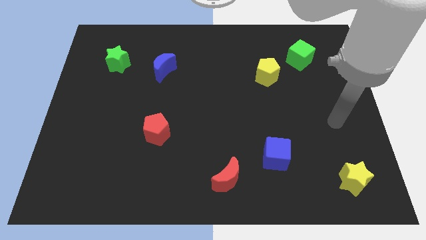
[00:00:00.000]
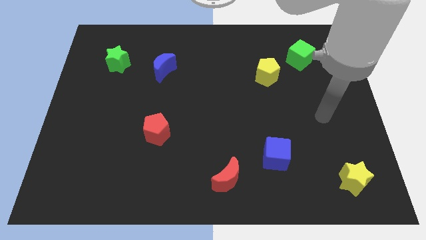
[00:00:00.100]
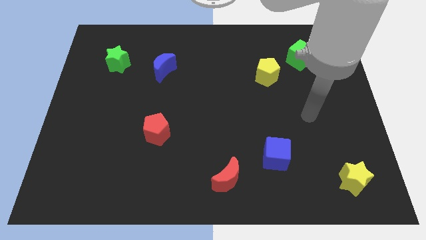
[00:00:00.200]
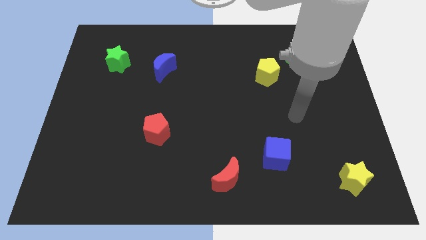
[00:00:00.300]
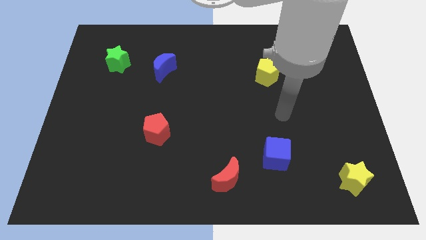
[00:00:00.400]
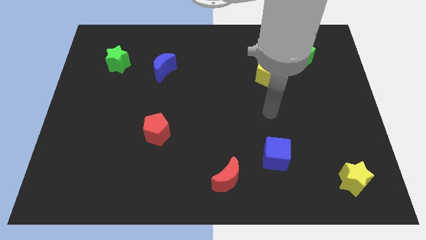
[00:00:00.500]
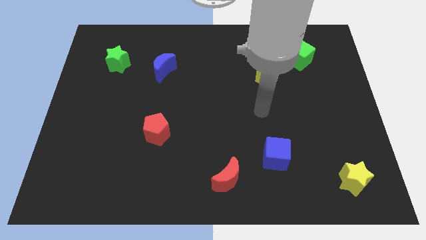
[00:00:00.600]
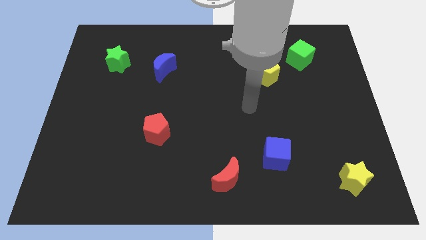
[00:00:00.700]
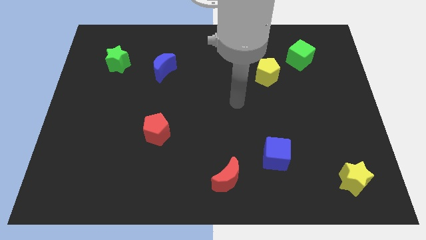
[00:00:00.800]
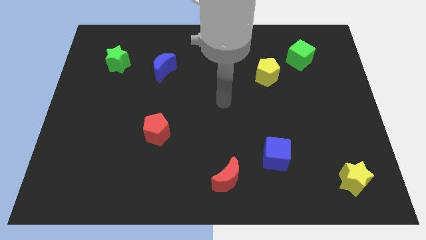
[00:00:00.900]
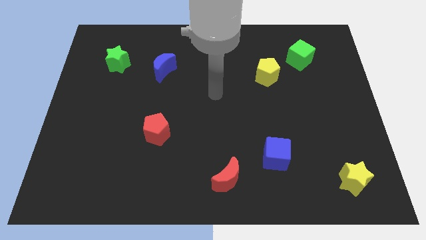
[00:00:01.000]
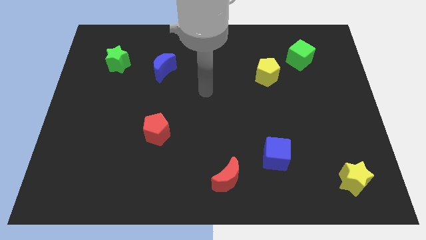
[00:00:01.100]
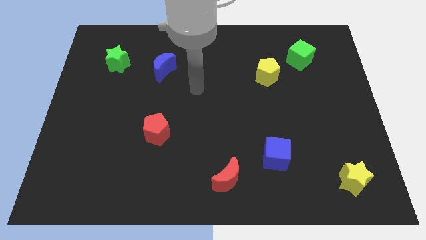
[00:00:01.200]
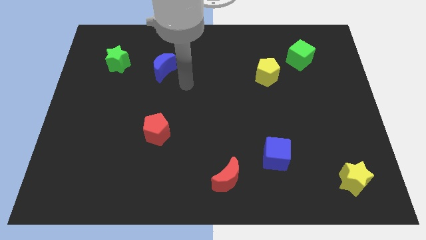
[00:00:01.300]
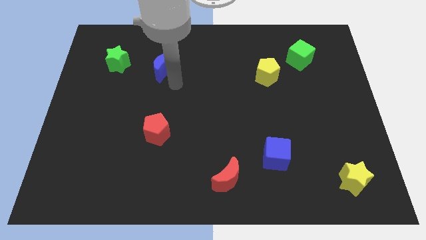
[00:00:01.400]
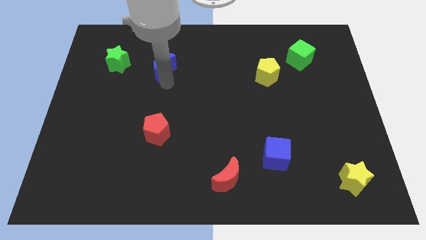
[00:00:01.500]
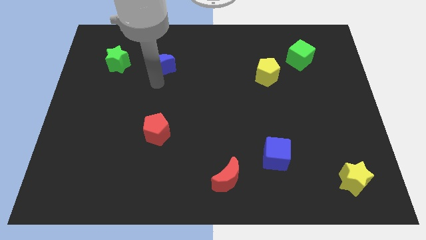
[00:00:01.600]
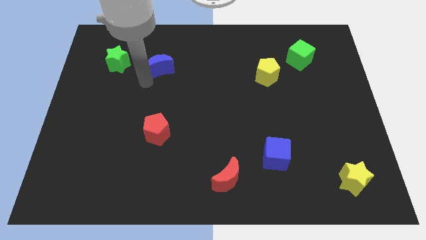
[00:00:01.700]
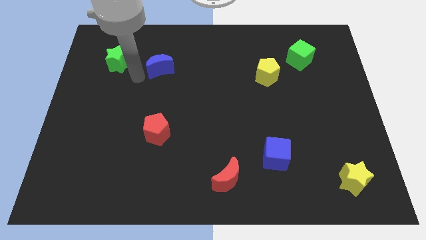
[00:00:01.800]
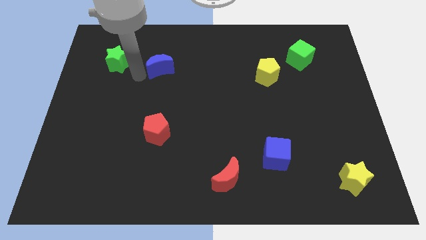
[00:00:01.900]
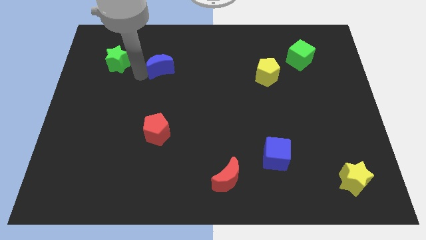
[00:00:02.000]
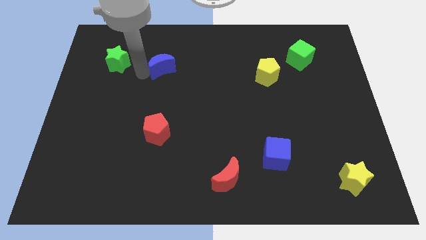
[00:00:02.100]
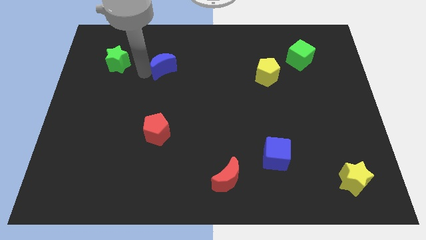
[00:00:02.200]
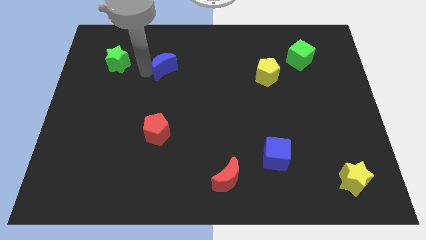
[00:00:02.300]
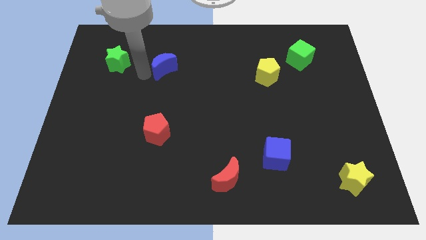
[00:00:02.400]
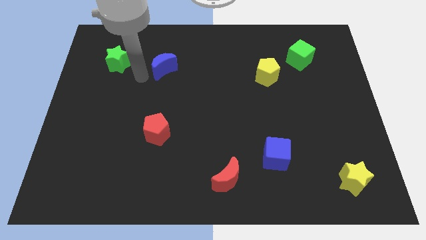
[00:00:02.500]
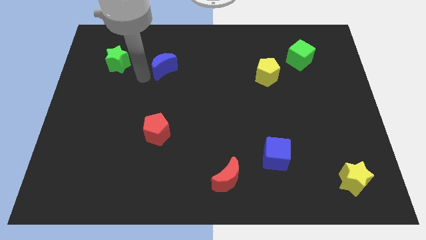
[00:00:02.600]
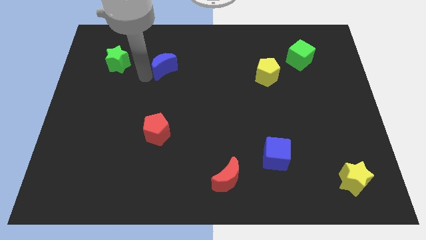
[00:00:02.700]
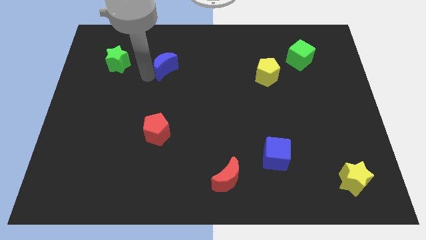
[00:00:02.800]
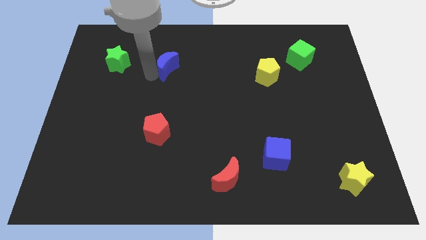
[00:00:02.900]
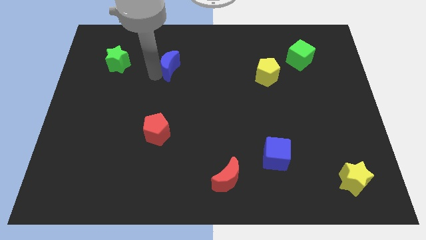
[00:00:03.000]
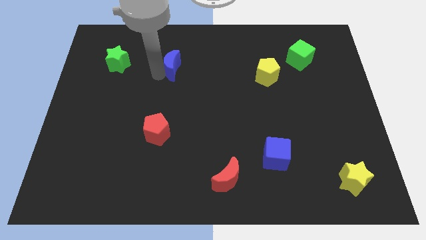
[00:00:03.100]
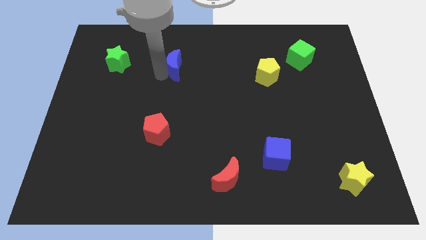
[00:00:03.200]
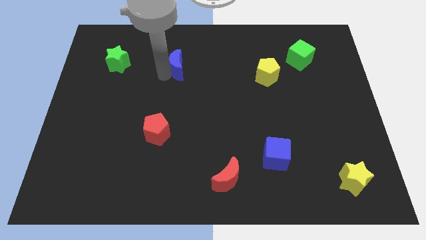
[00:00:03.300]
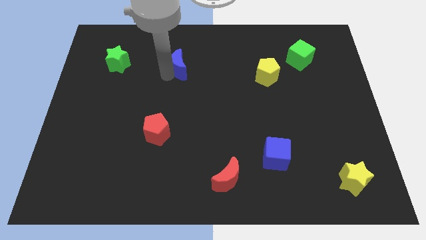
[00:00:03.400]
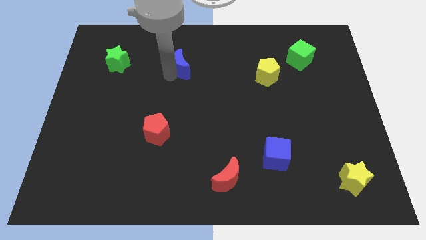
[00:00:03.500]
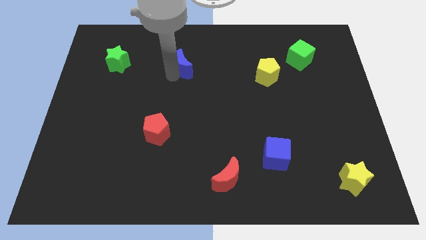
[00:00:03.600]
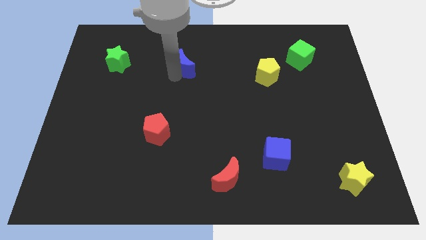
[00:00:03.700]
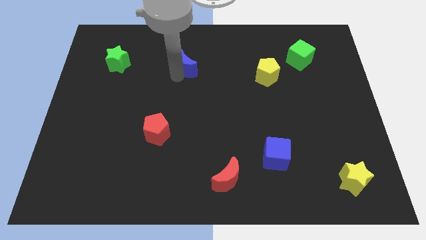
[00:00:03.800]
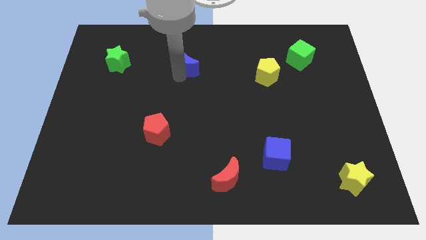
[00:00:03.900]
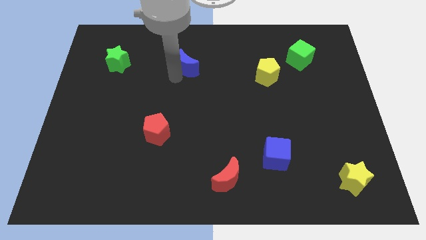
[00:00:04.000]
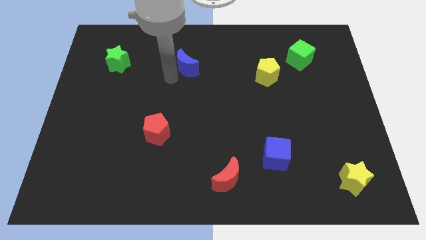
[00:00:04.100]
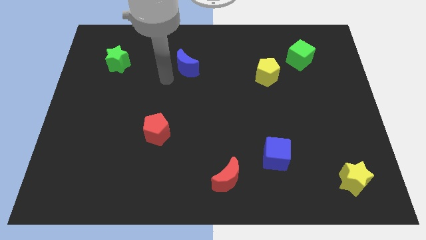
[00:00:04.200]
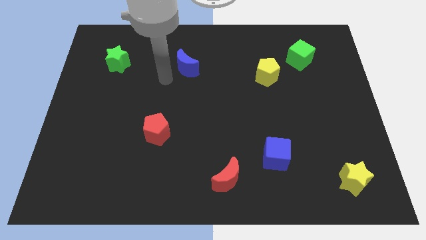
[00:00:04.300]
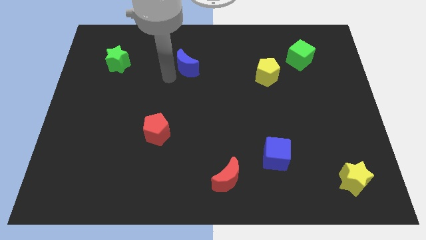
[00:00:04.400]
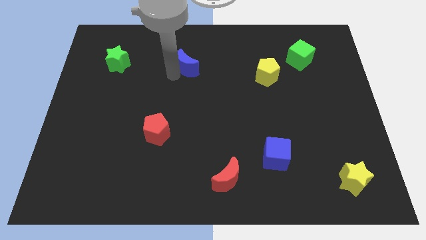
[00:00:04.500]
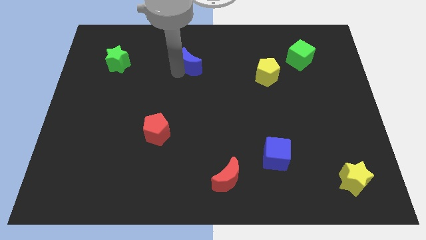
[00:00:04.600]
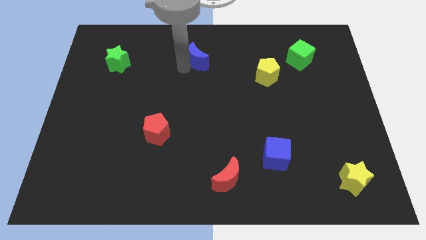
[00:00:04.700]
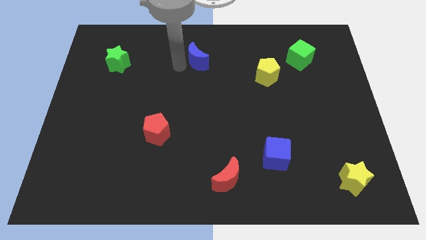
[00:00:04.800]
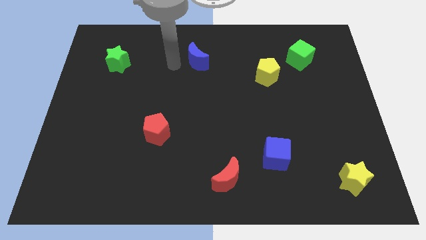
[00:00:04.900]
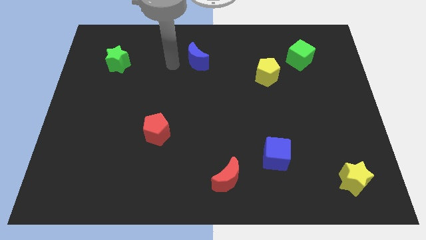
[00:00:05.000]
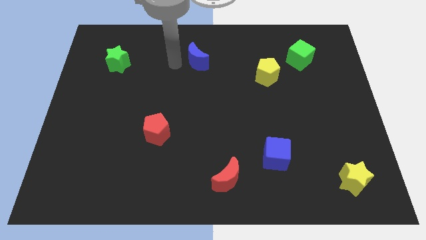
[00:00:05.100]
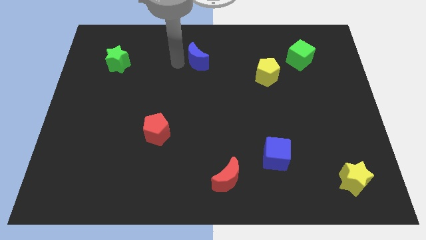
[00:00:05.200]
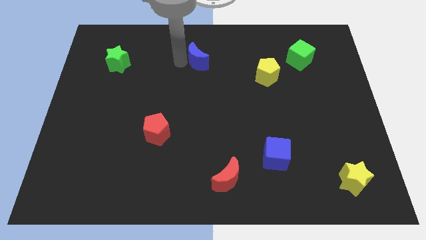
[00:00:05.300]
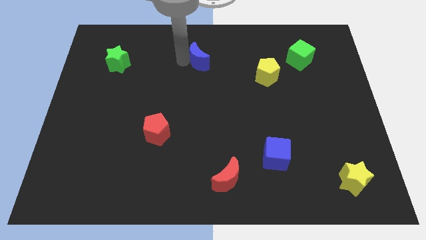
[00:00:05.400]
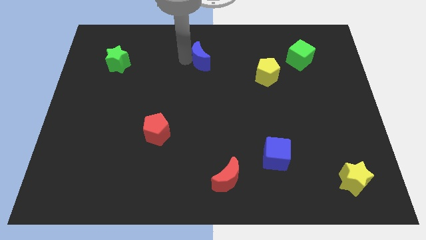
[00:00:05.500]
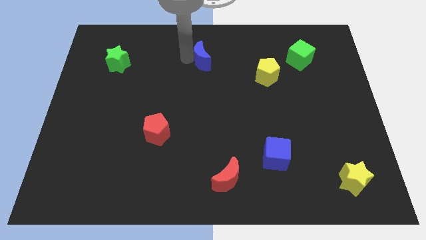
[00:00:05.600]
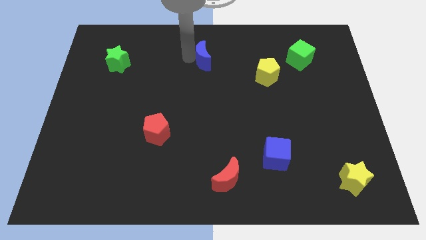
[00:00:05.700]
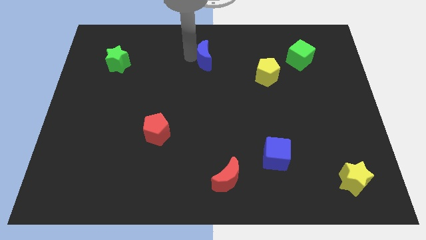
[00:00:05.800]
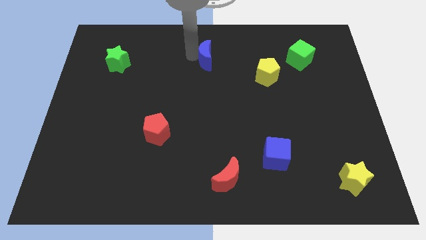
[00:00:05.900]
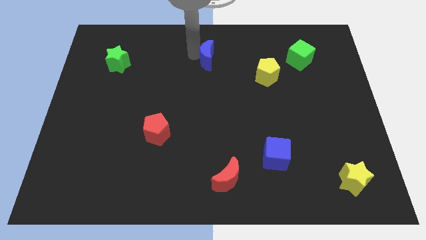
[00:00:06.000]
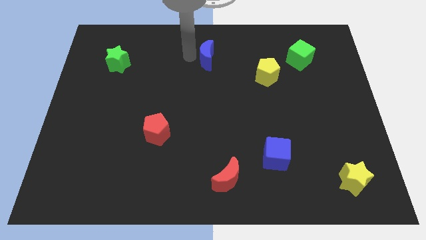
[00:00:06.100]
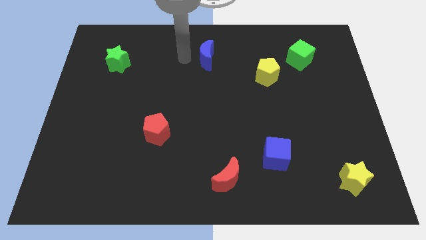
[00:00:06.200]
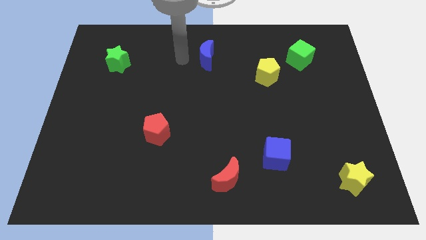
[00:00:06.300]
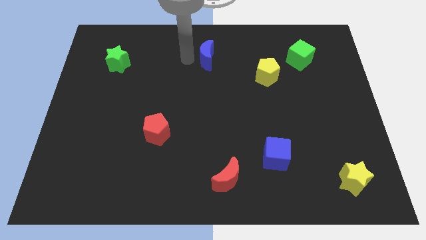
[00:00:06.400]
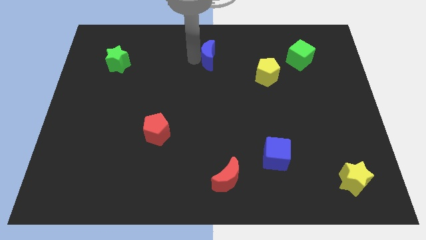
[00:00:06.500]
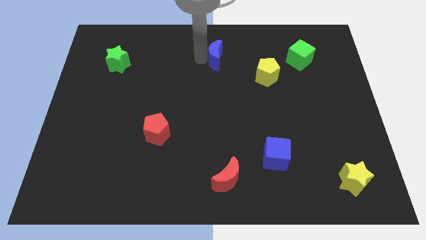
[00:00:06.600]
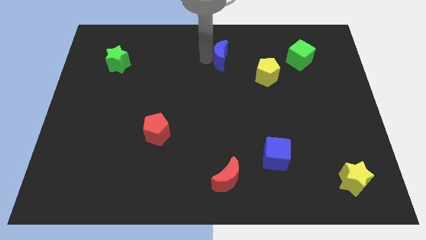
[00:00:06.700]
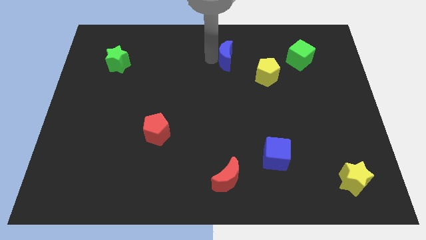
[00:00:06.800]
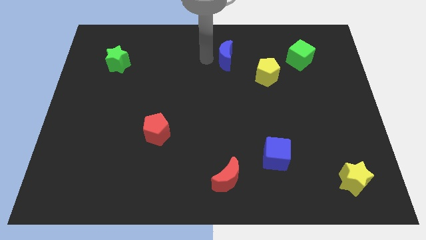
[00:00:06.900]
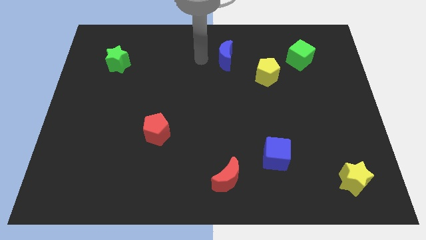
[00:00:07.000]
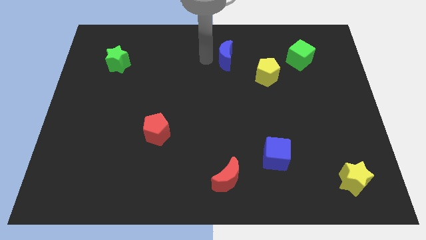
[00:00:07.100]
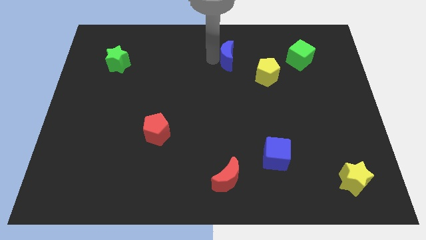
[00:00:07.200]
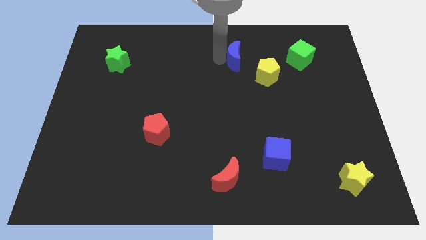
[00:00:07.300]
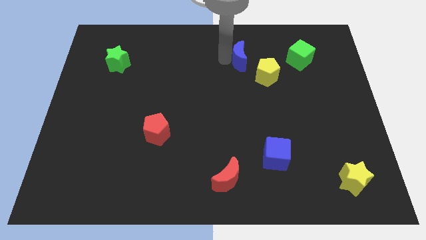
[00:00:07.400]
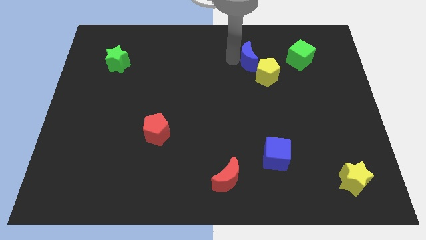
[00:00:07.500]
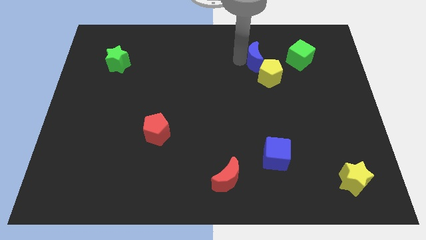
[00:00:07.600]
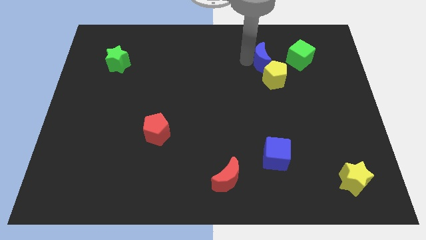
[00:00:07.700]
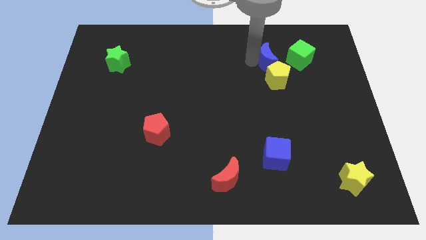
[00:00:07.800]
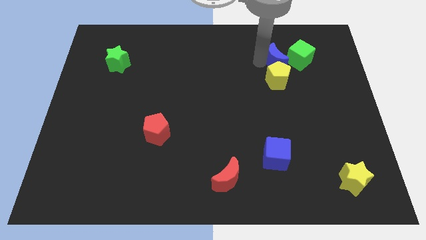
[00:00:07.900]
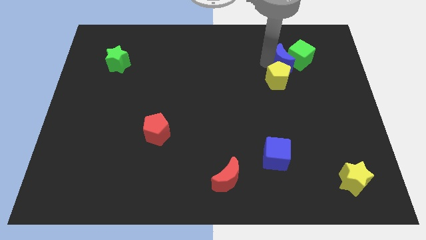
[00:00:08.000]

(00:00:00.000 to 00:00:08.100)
move the blue moon close to the green cube
